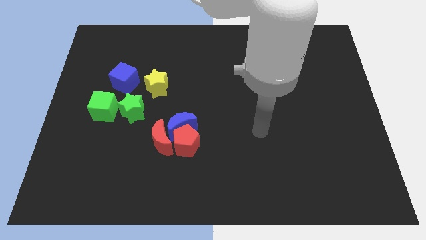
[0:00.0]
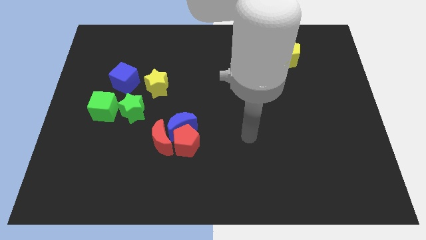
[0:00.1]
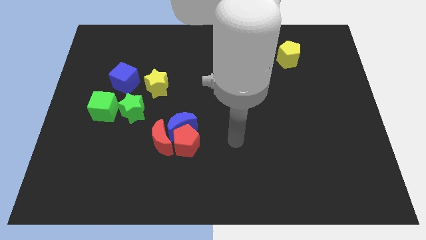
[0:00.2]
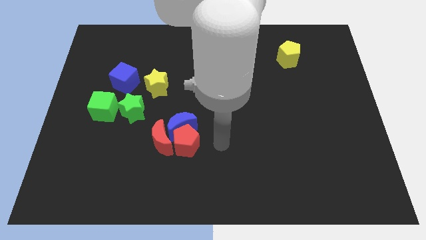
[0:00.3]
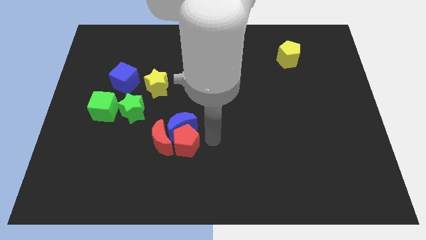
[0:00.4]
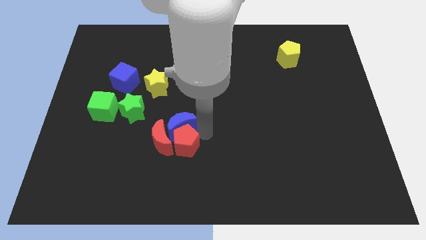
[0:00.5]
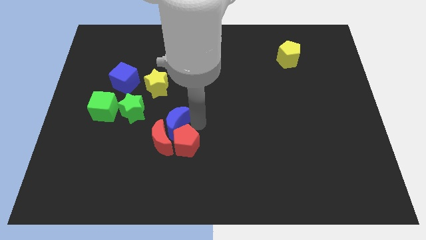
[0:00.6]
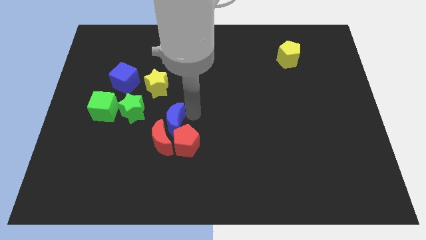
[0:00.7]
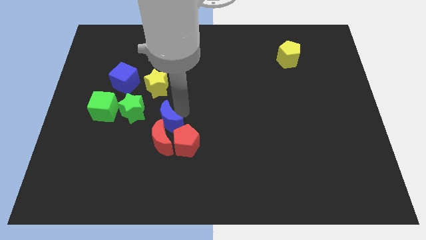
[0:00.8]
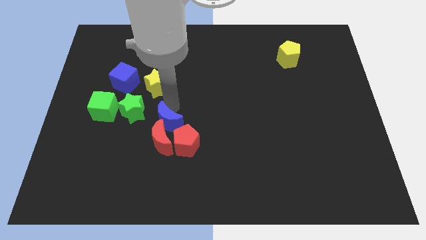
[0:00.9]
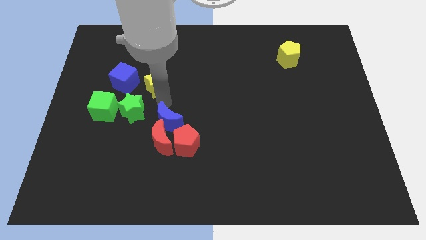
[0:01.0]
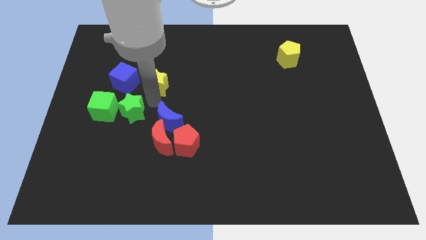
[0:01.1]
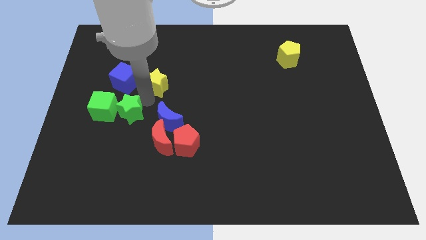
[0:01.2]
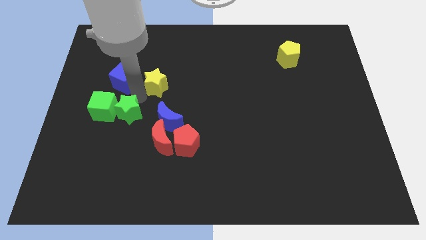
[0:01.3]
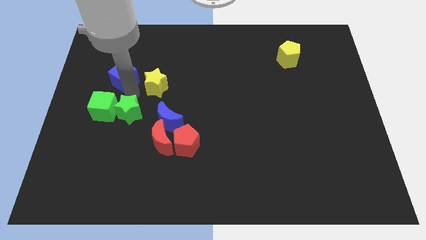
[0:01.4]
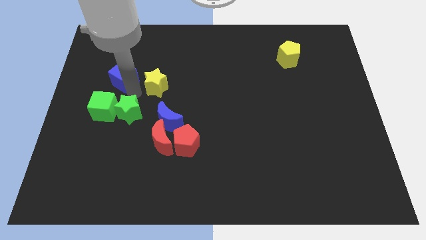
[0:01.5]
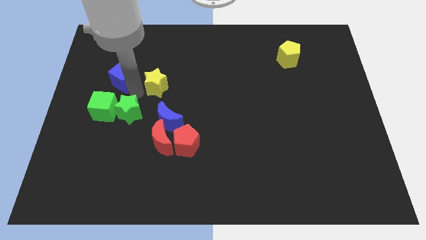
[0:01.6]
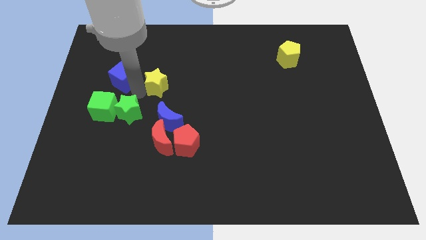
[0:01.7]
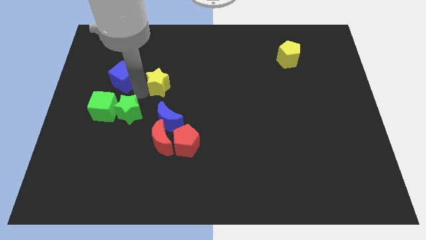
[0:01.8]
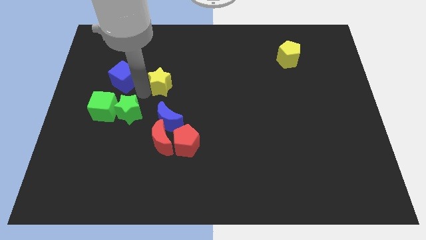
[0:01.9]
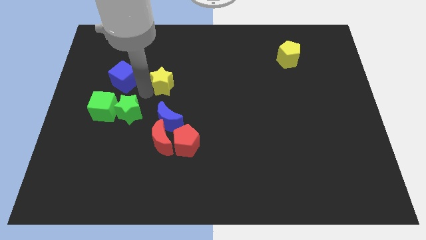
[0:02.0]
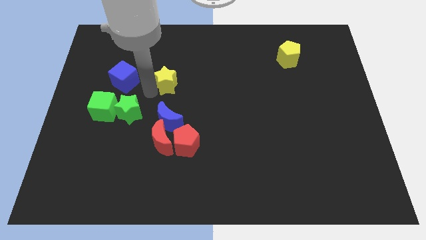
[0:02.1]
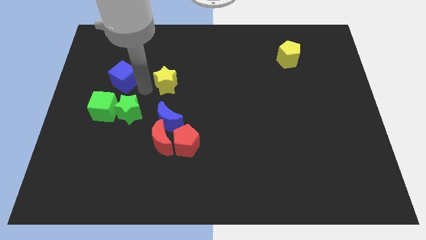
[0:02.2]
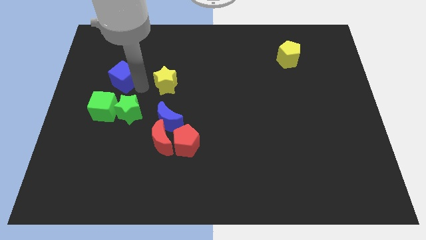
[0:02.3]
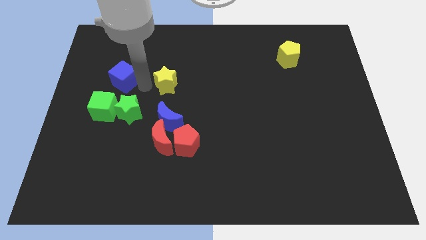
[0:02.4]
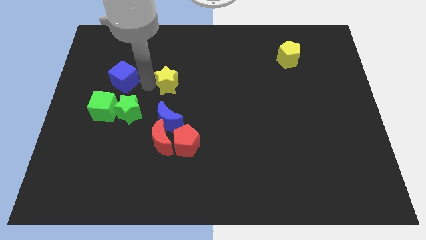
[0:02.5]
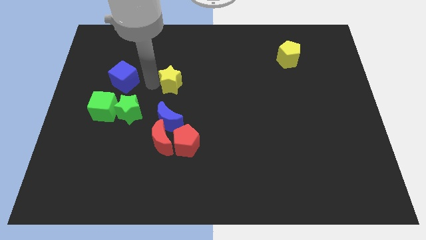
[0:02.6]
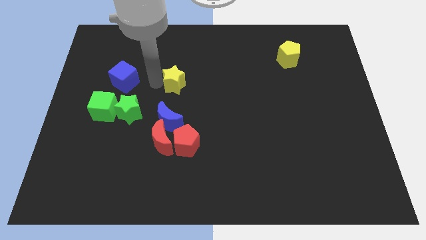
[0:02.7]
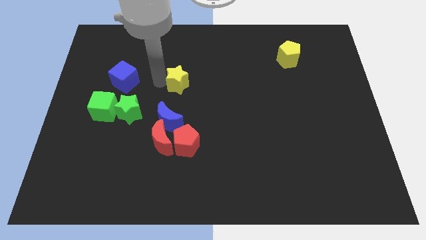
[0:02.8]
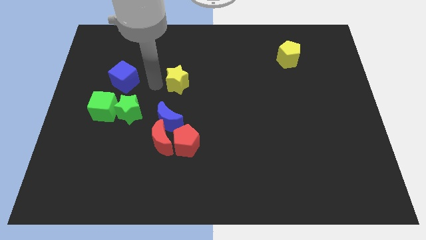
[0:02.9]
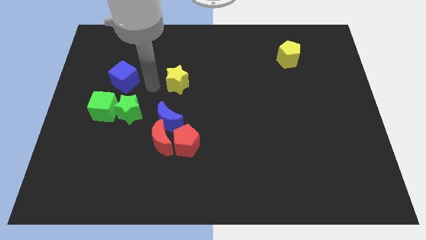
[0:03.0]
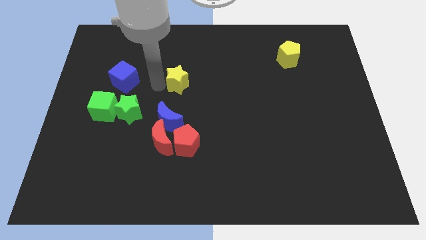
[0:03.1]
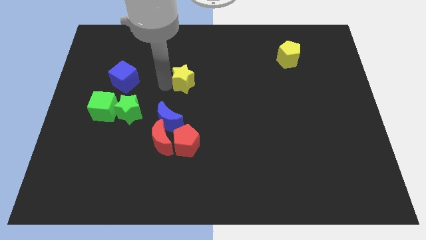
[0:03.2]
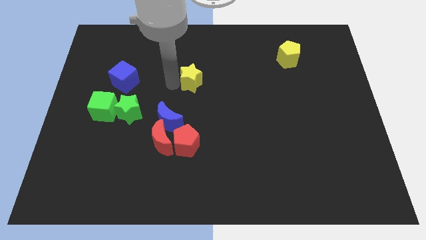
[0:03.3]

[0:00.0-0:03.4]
move the yellow star a little to the right

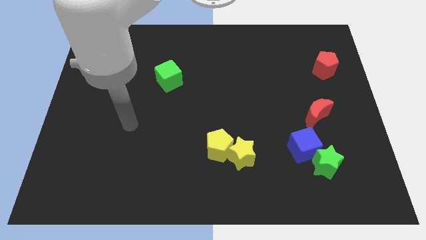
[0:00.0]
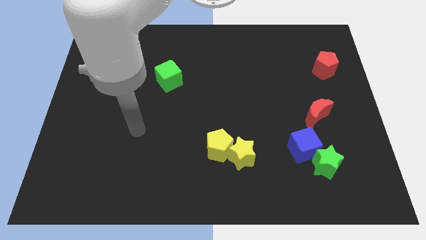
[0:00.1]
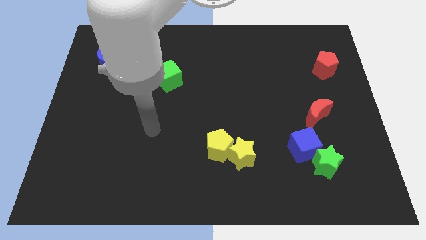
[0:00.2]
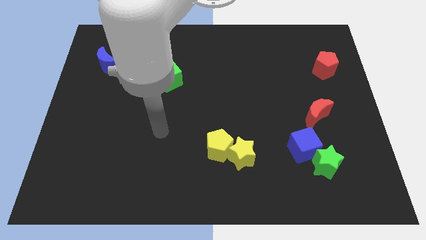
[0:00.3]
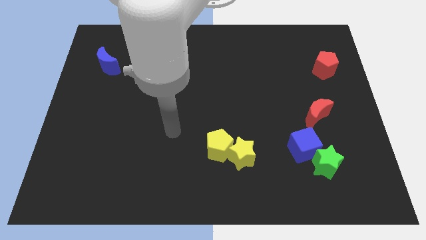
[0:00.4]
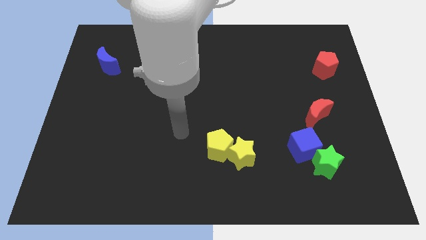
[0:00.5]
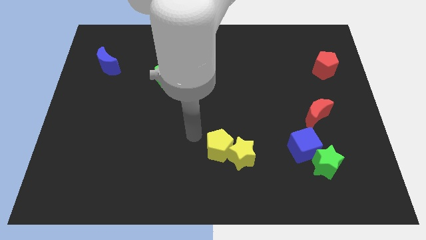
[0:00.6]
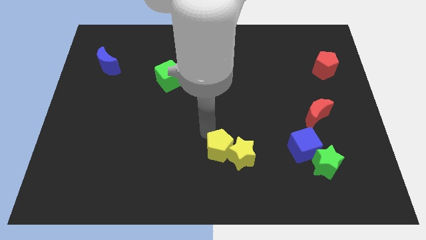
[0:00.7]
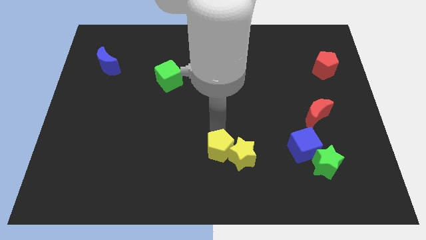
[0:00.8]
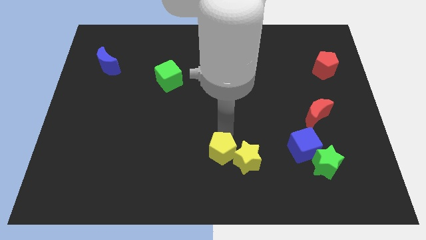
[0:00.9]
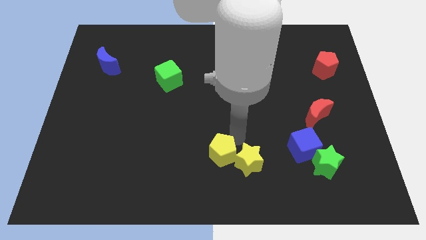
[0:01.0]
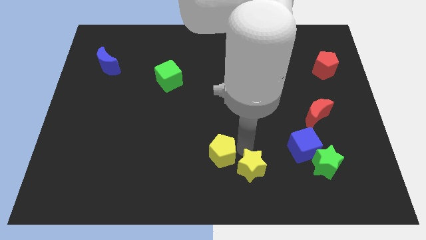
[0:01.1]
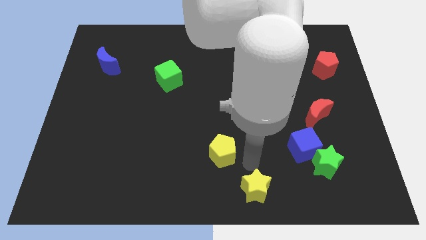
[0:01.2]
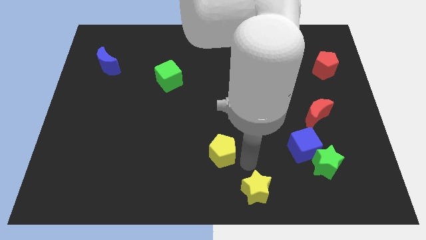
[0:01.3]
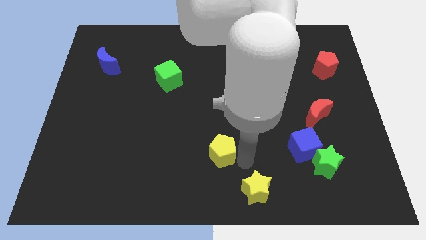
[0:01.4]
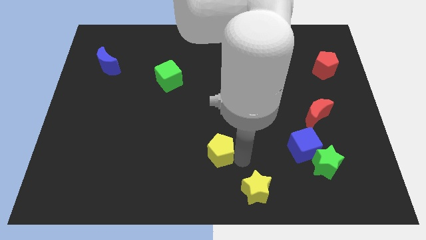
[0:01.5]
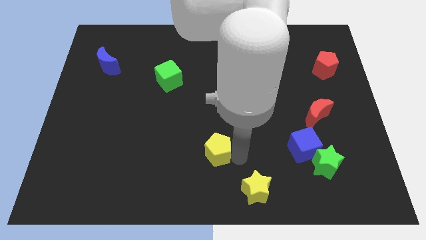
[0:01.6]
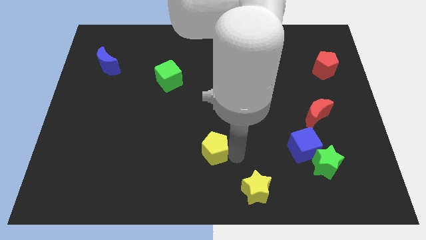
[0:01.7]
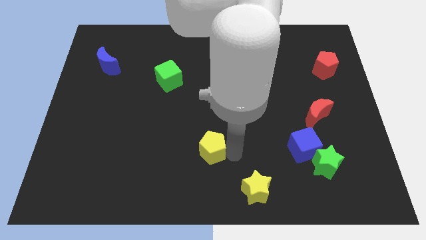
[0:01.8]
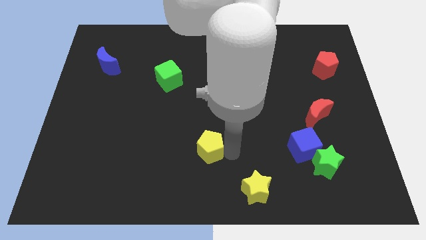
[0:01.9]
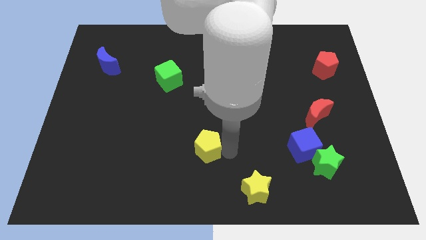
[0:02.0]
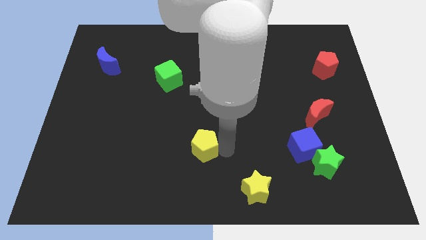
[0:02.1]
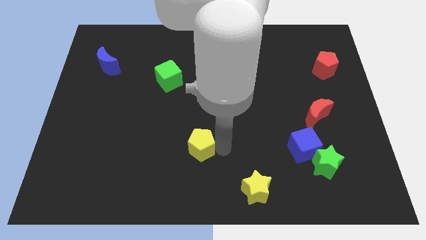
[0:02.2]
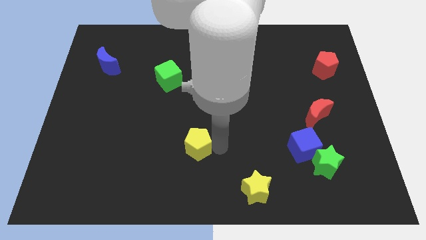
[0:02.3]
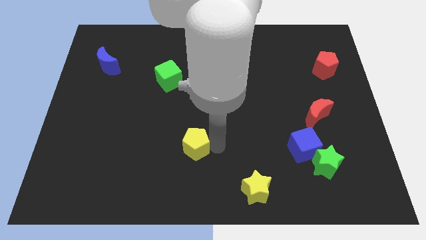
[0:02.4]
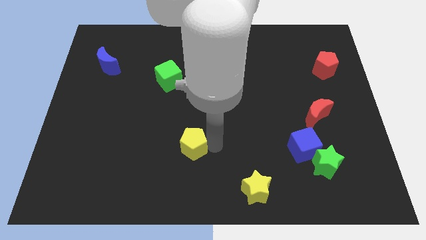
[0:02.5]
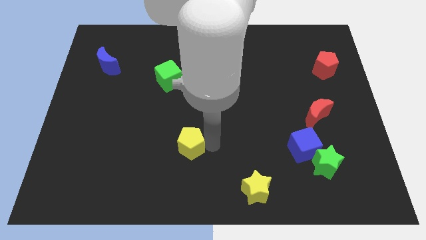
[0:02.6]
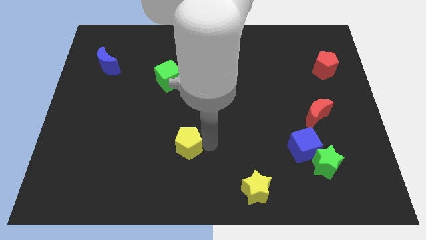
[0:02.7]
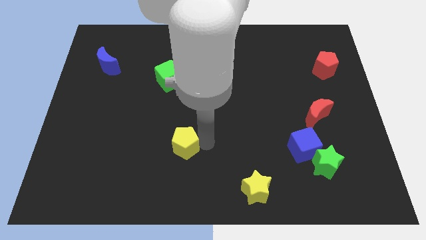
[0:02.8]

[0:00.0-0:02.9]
slide the yellow pentagon slightly to the left

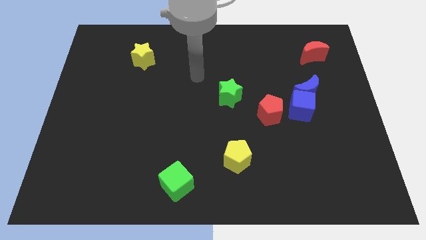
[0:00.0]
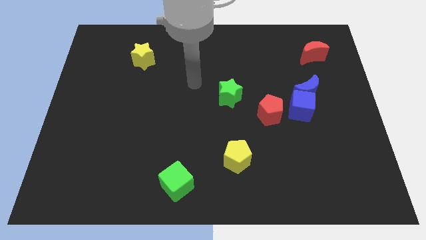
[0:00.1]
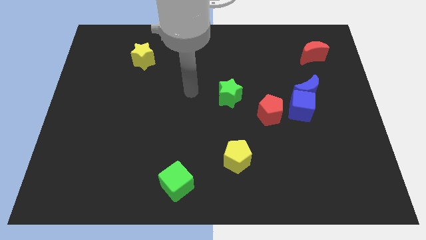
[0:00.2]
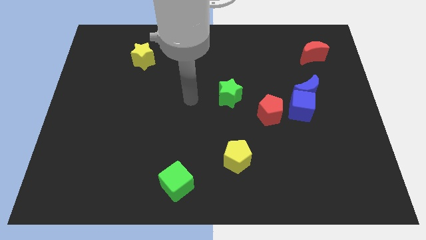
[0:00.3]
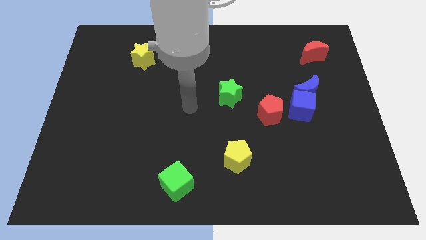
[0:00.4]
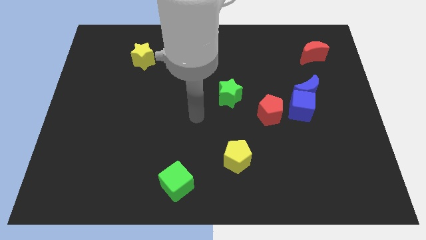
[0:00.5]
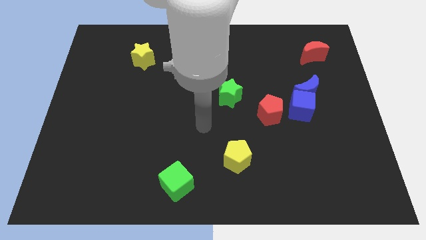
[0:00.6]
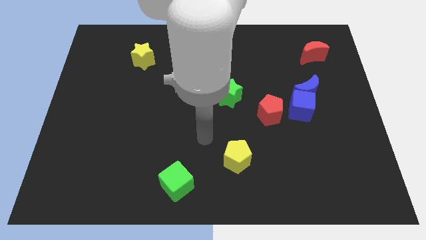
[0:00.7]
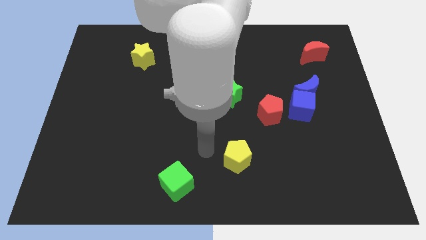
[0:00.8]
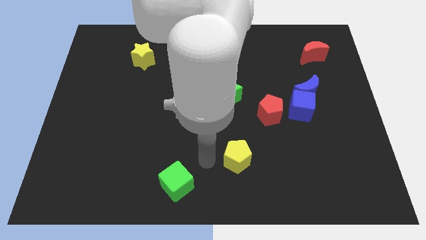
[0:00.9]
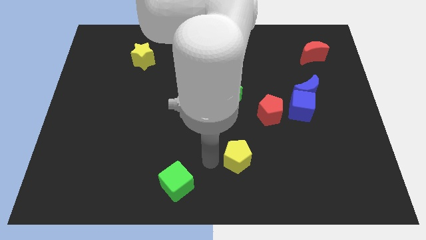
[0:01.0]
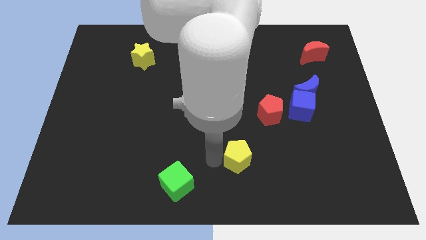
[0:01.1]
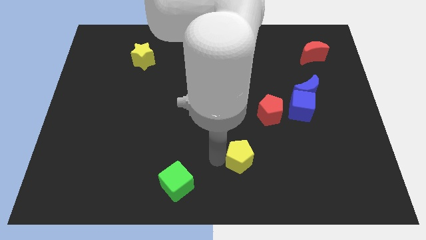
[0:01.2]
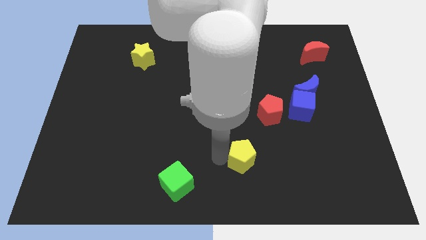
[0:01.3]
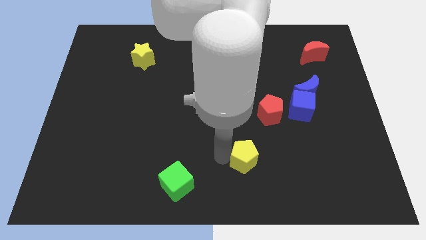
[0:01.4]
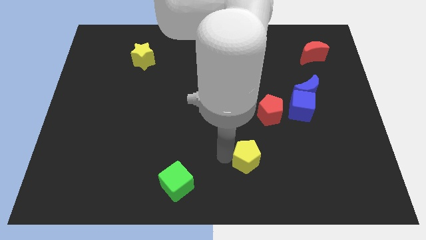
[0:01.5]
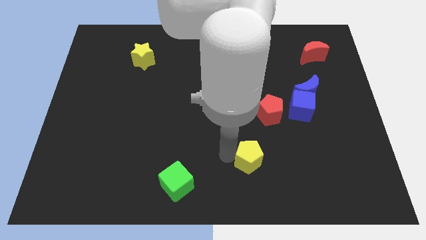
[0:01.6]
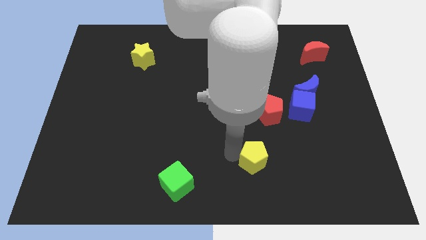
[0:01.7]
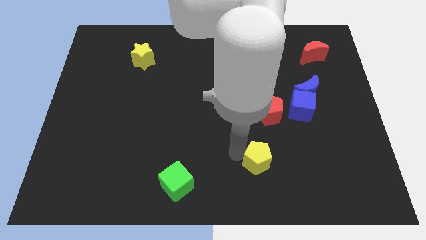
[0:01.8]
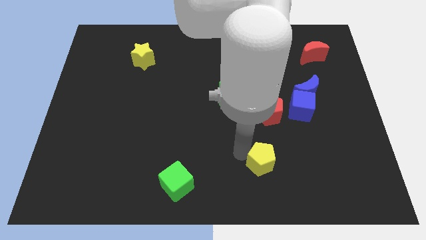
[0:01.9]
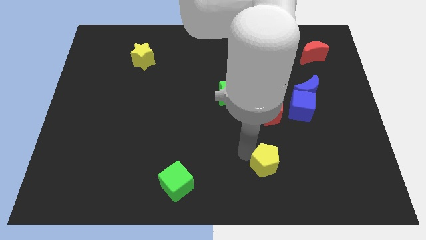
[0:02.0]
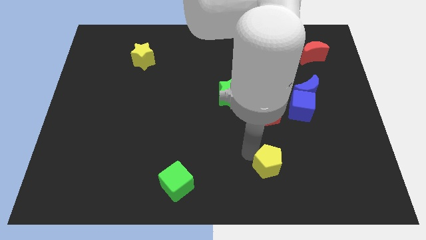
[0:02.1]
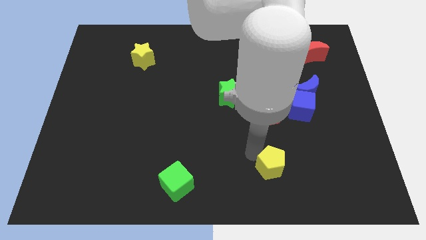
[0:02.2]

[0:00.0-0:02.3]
move the yellow pentagon a bit to the right
